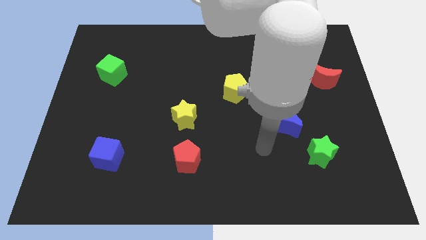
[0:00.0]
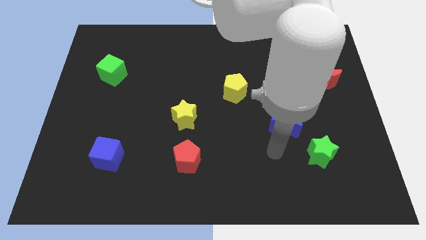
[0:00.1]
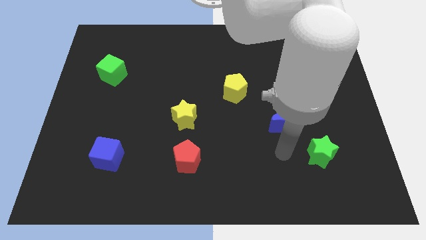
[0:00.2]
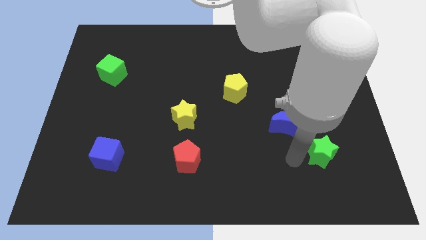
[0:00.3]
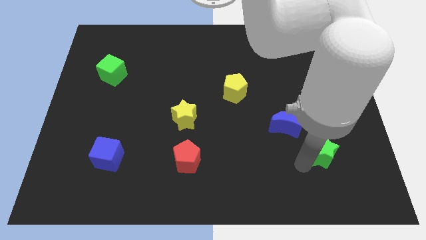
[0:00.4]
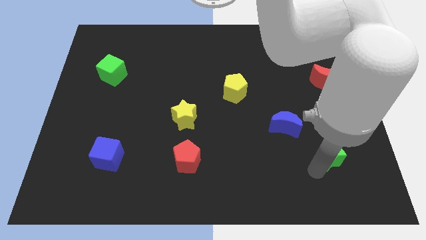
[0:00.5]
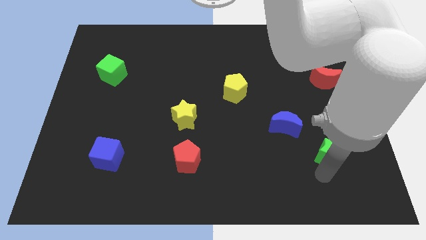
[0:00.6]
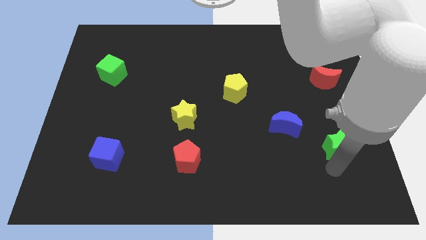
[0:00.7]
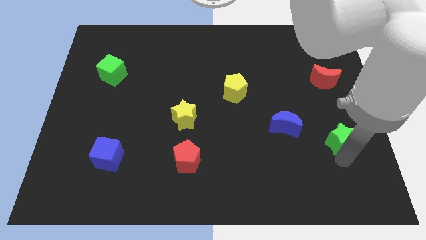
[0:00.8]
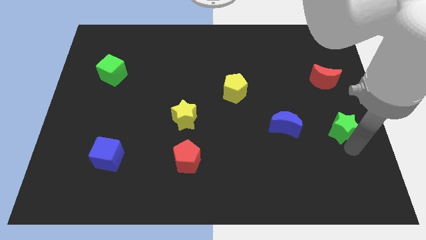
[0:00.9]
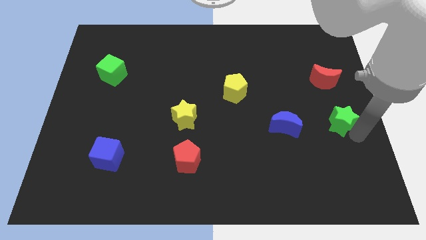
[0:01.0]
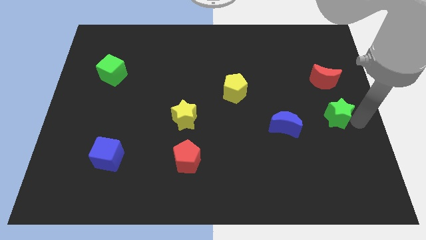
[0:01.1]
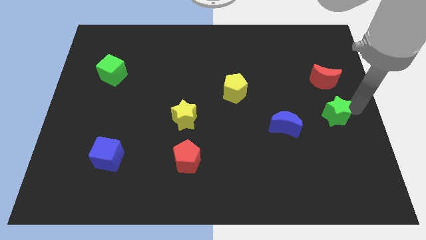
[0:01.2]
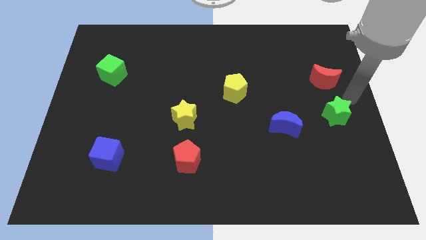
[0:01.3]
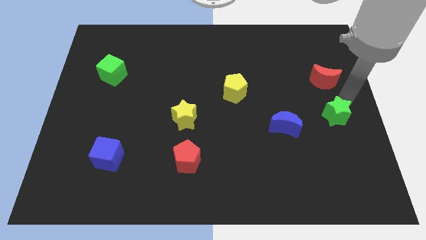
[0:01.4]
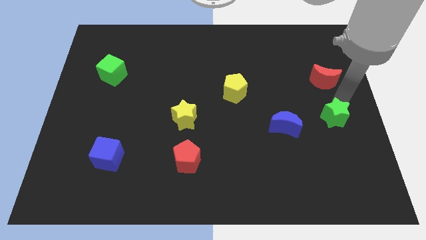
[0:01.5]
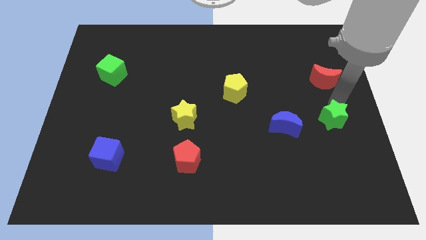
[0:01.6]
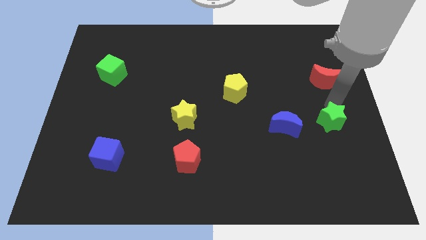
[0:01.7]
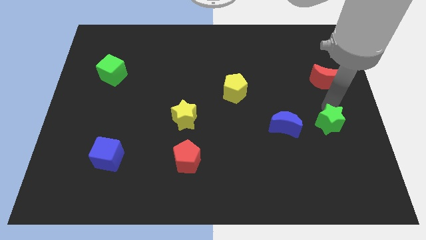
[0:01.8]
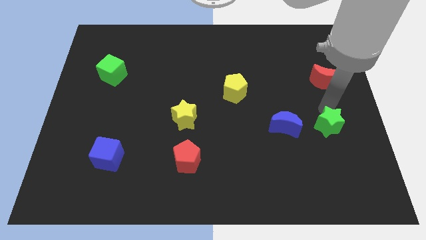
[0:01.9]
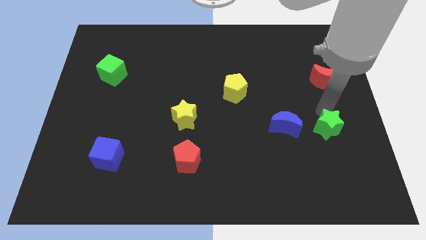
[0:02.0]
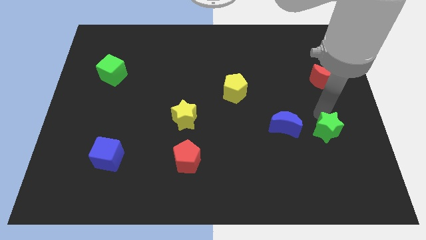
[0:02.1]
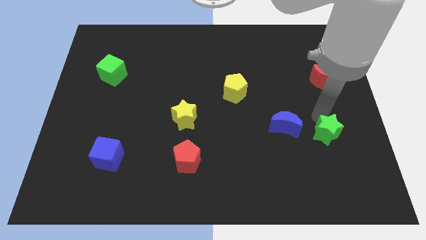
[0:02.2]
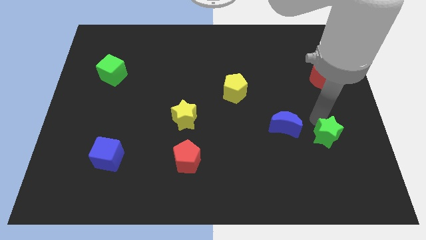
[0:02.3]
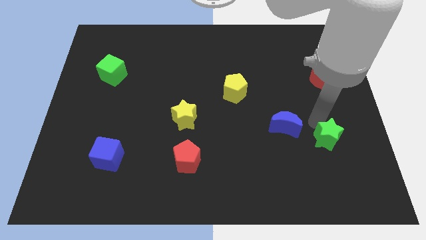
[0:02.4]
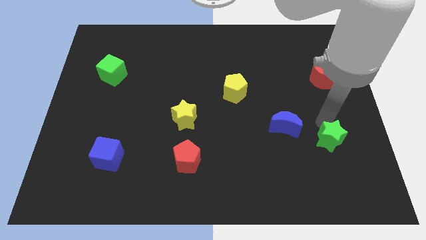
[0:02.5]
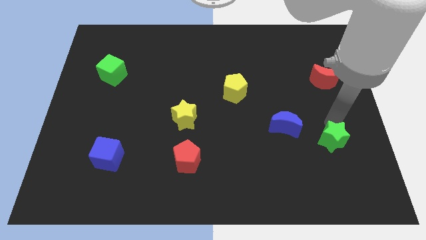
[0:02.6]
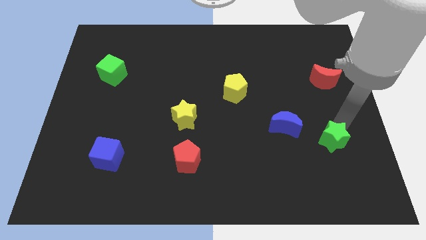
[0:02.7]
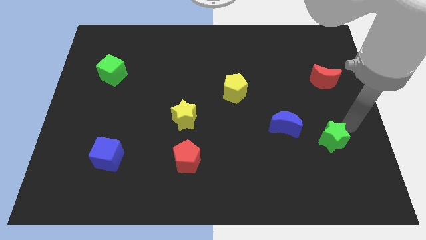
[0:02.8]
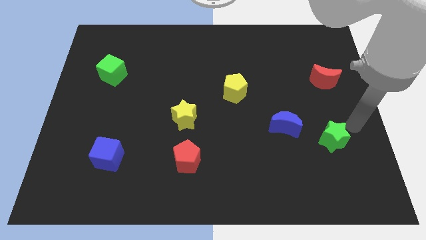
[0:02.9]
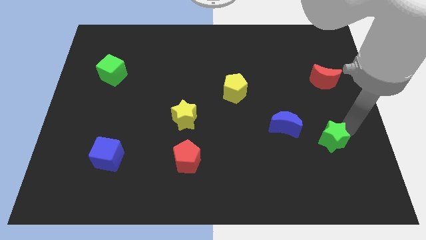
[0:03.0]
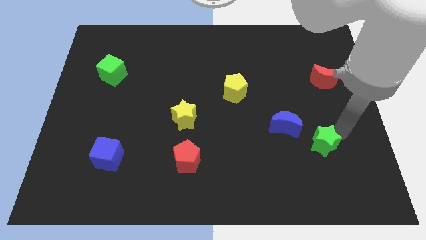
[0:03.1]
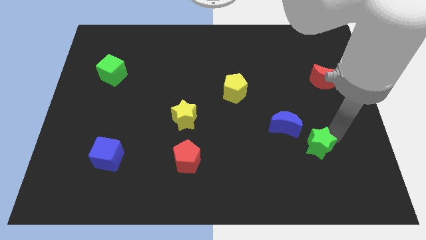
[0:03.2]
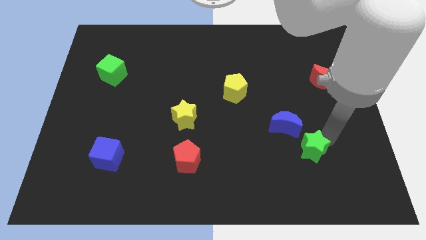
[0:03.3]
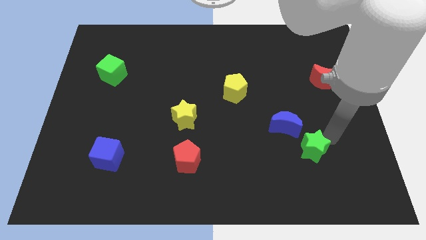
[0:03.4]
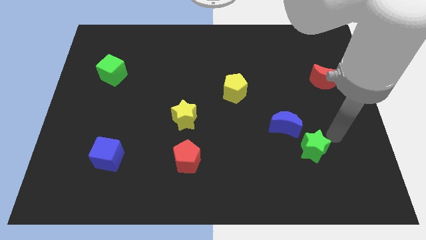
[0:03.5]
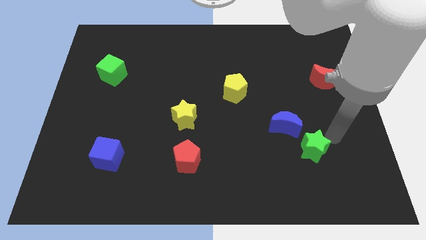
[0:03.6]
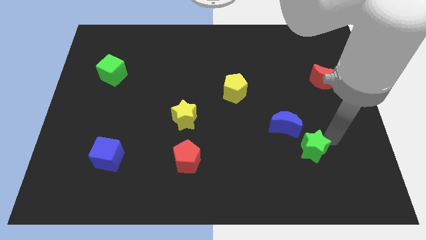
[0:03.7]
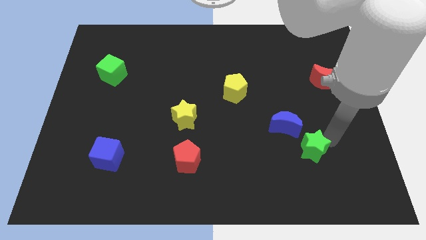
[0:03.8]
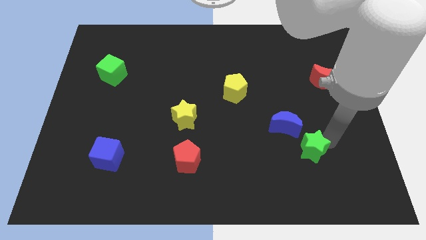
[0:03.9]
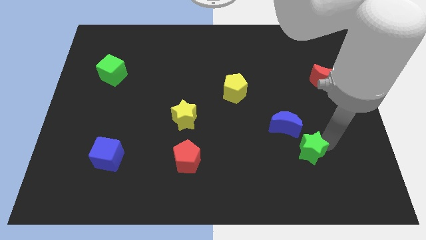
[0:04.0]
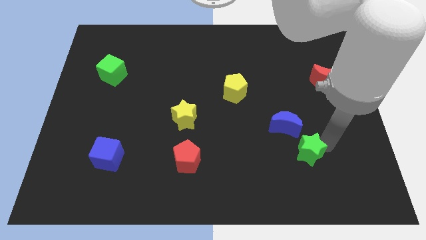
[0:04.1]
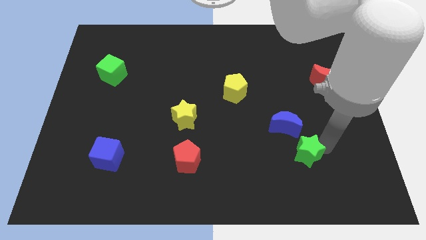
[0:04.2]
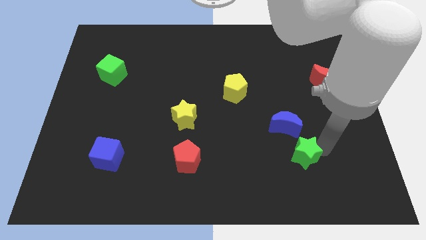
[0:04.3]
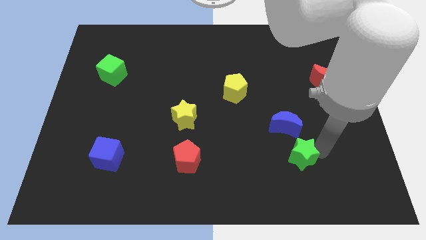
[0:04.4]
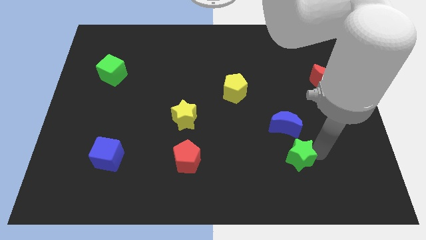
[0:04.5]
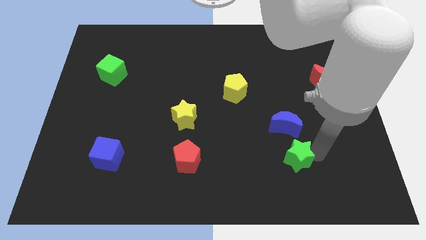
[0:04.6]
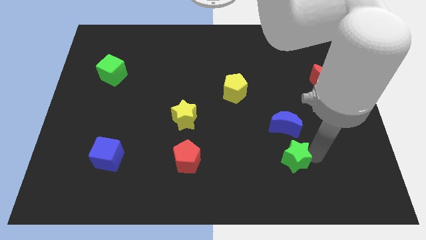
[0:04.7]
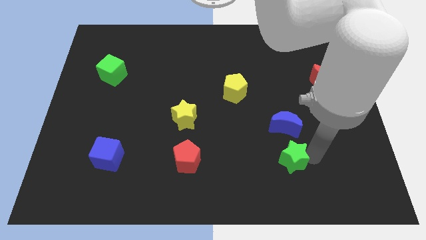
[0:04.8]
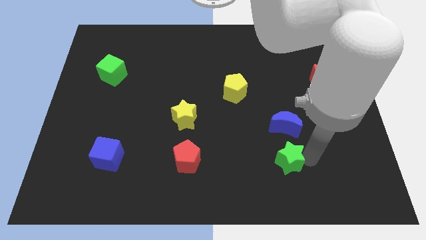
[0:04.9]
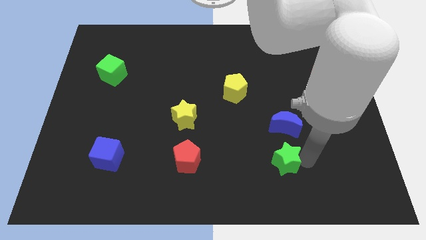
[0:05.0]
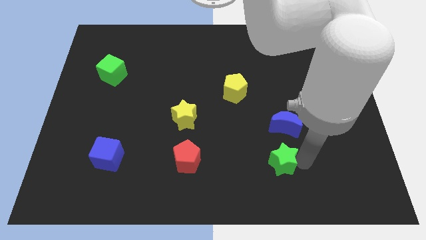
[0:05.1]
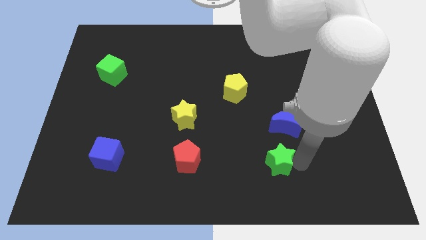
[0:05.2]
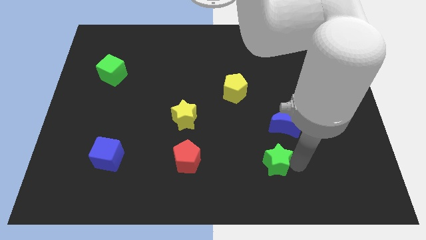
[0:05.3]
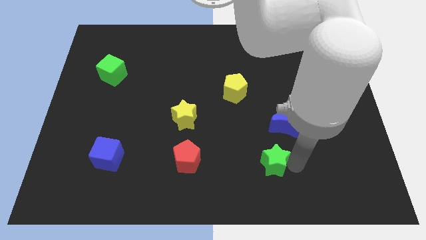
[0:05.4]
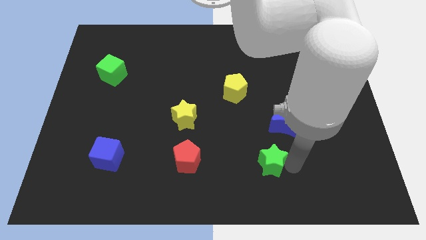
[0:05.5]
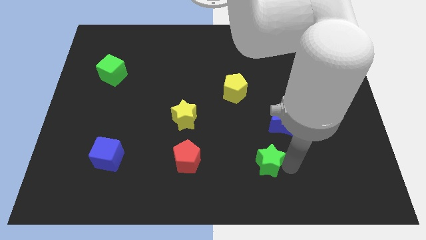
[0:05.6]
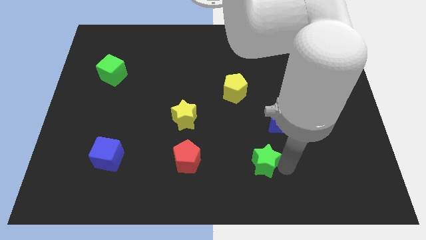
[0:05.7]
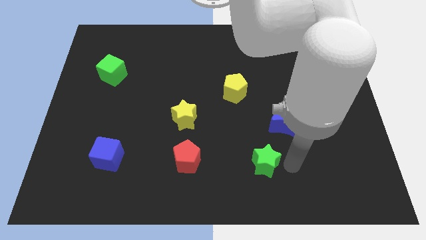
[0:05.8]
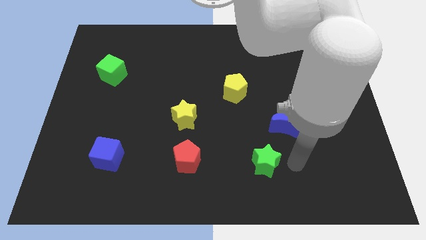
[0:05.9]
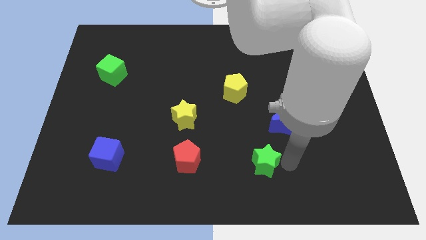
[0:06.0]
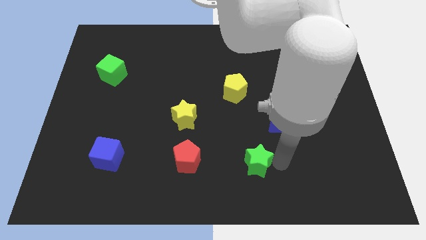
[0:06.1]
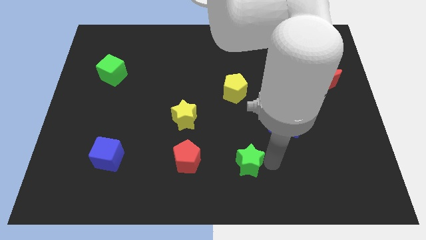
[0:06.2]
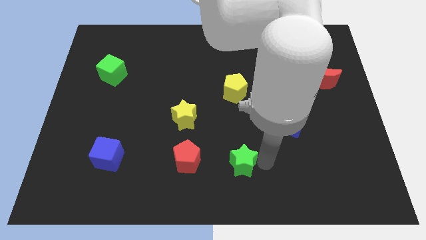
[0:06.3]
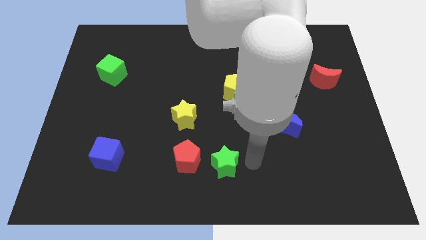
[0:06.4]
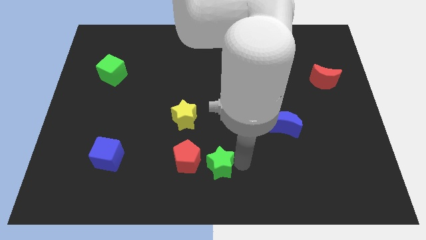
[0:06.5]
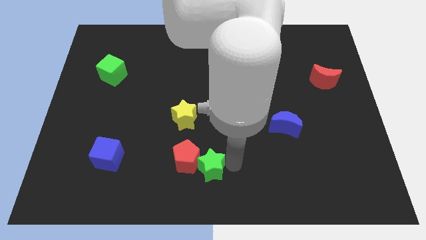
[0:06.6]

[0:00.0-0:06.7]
slide the green star towards the red pentagon

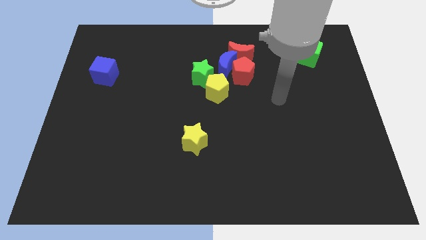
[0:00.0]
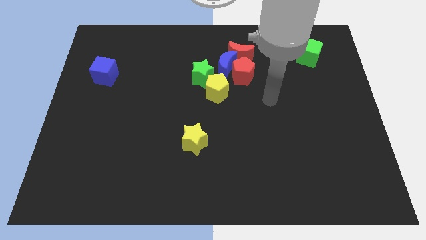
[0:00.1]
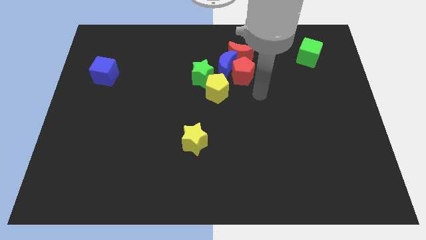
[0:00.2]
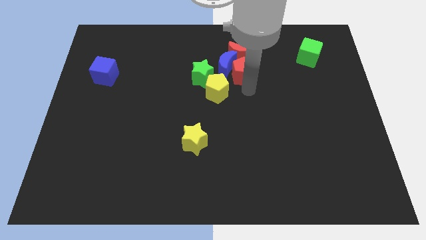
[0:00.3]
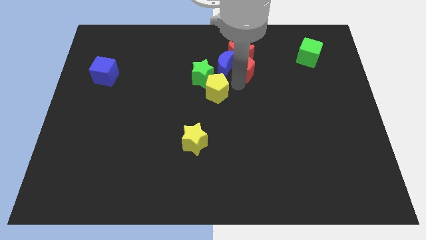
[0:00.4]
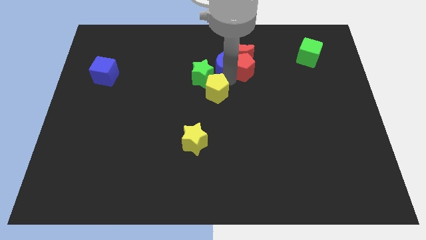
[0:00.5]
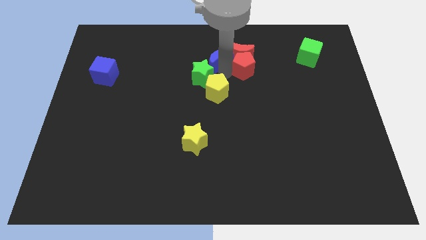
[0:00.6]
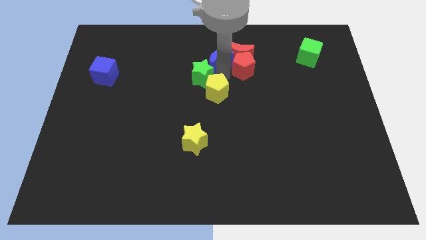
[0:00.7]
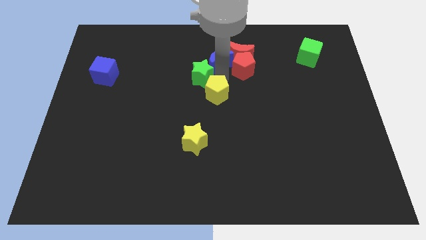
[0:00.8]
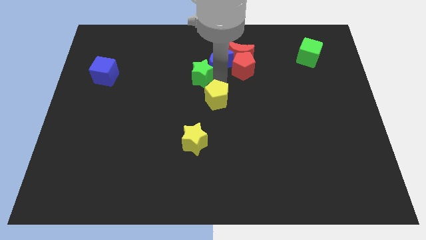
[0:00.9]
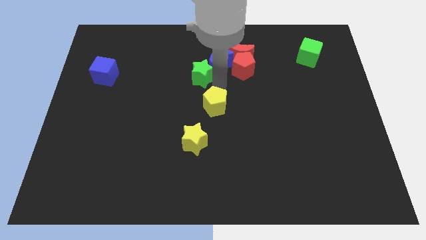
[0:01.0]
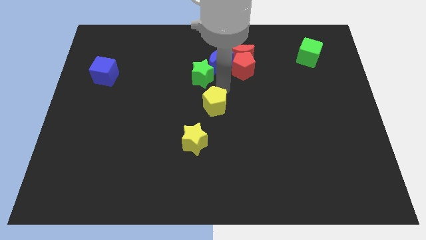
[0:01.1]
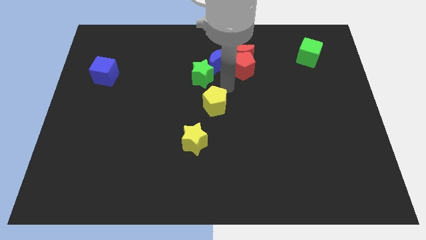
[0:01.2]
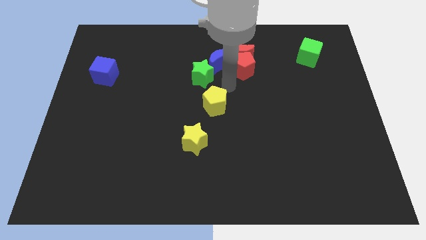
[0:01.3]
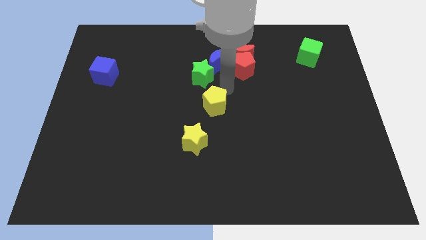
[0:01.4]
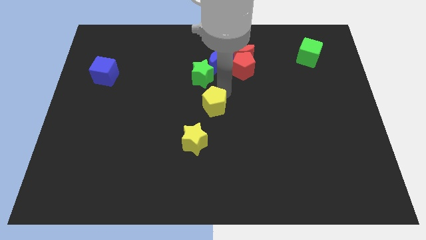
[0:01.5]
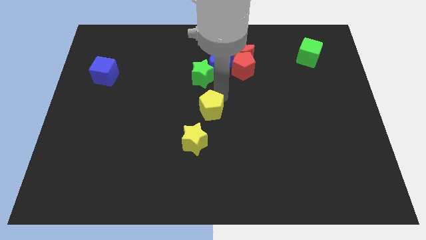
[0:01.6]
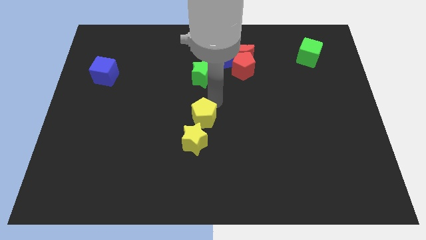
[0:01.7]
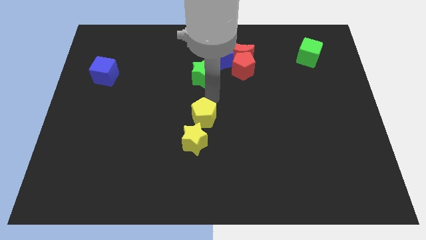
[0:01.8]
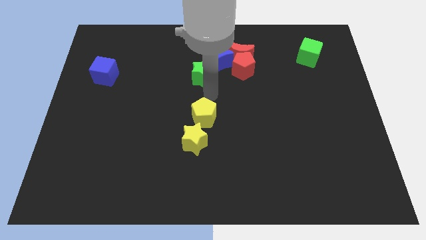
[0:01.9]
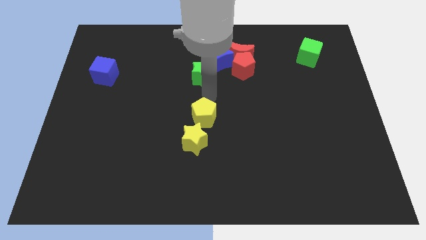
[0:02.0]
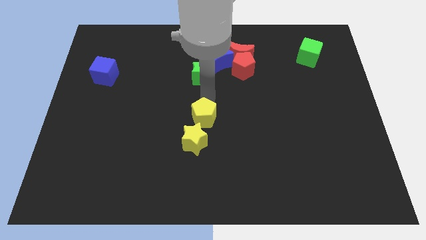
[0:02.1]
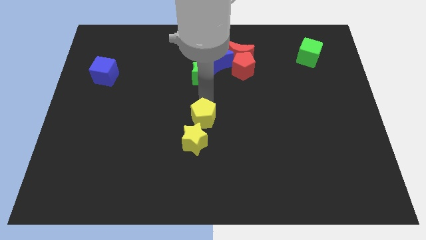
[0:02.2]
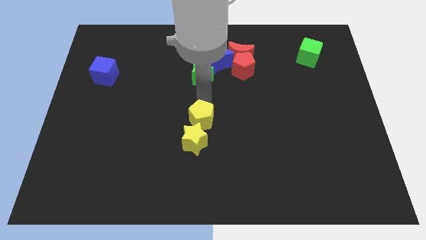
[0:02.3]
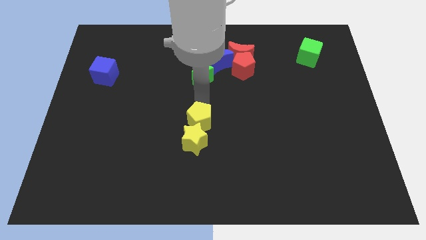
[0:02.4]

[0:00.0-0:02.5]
move the yellow pentagon next to the yellow star
